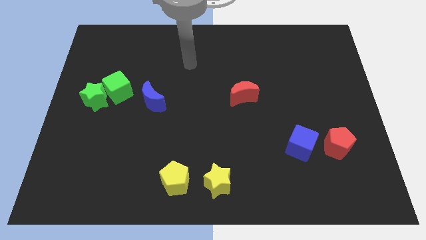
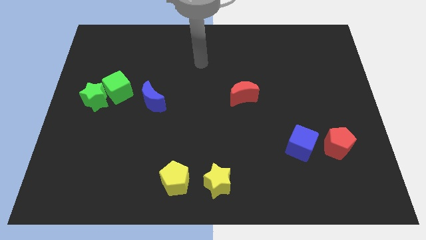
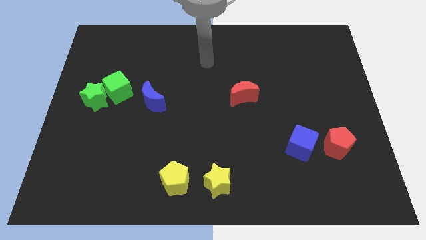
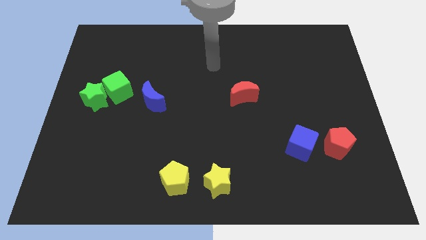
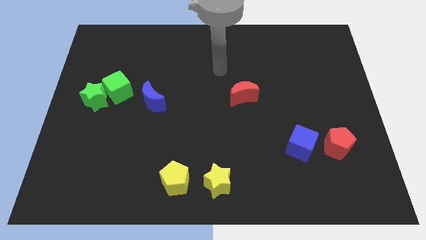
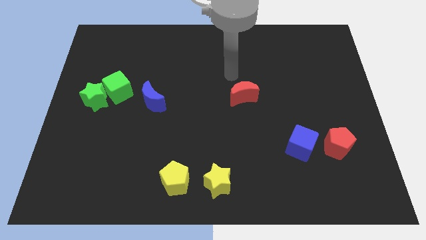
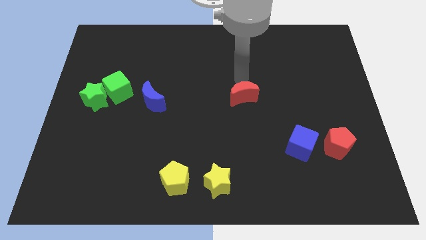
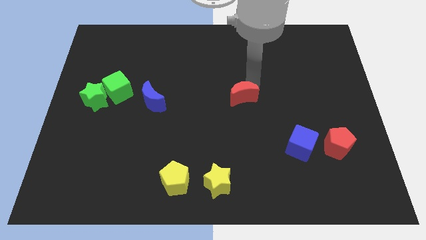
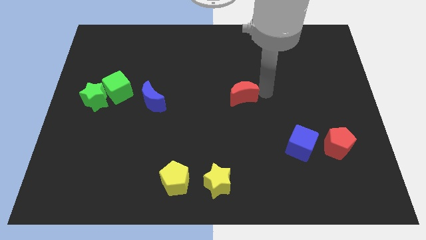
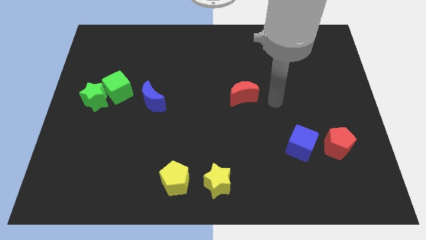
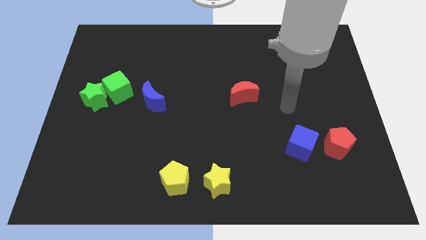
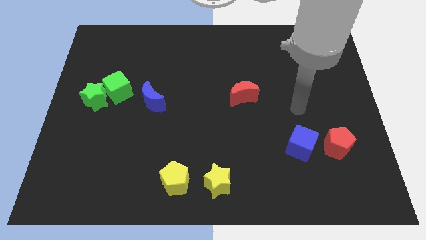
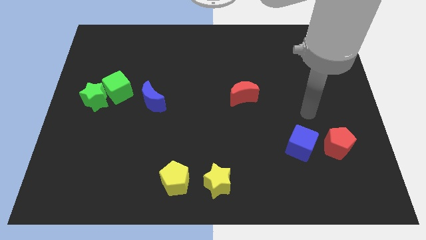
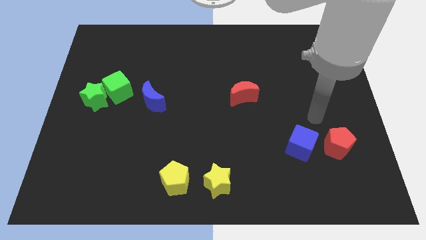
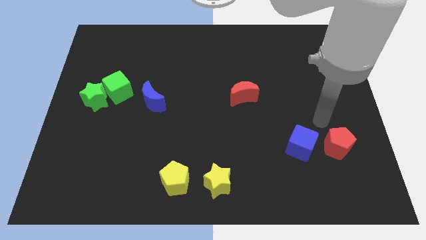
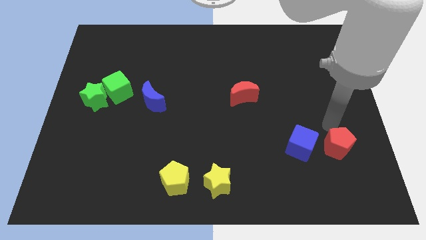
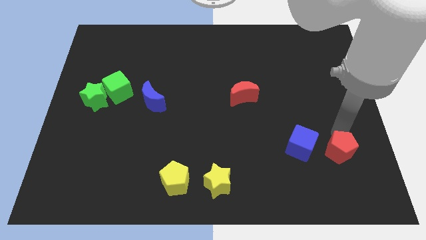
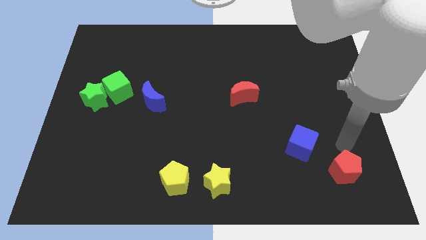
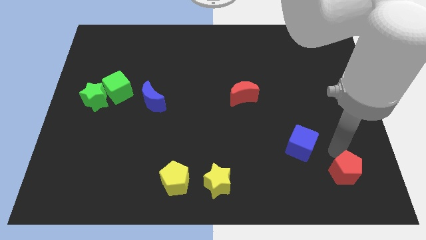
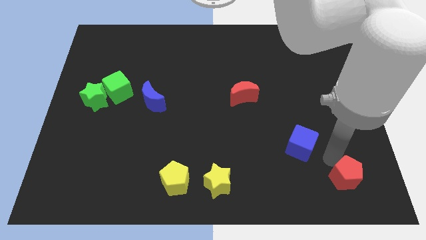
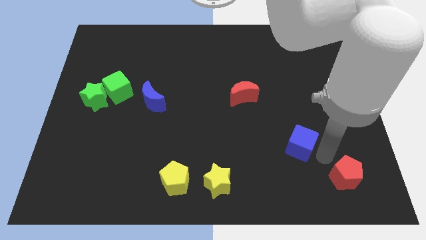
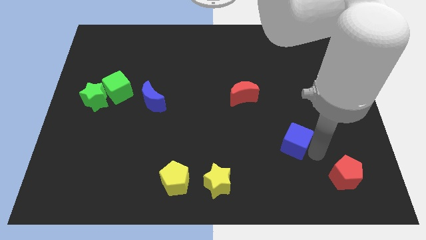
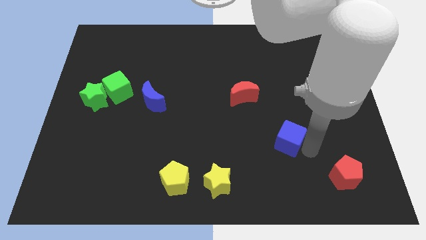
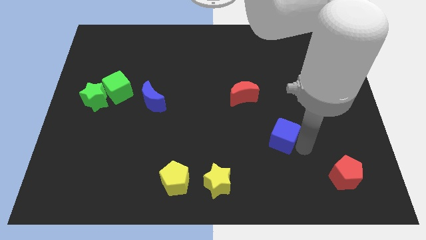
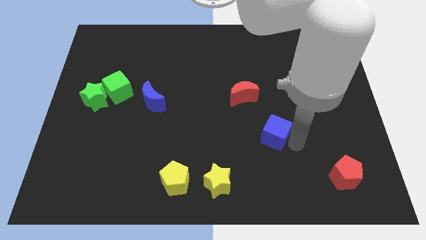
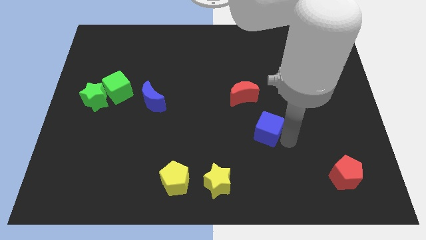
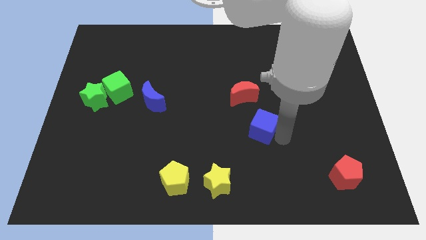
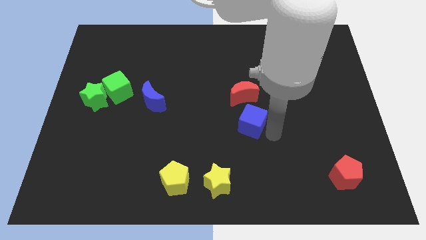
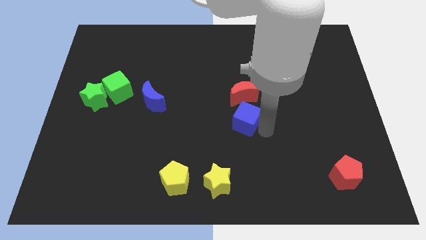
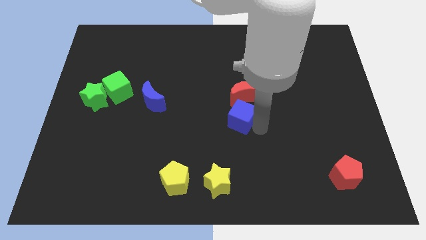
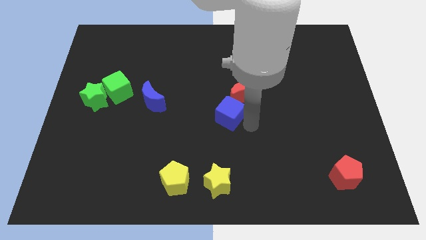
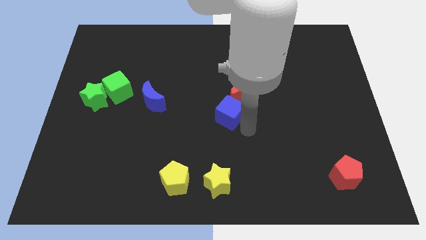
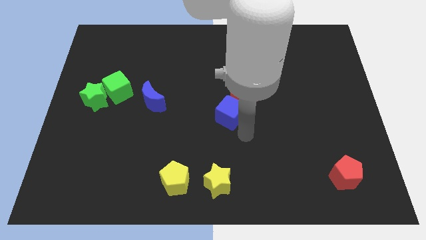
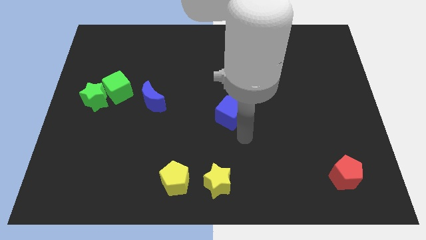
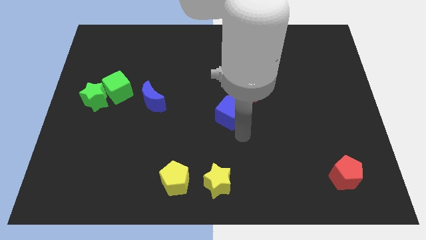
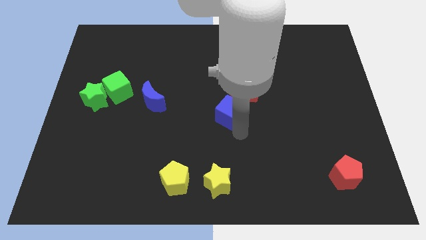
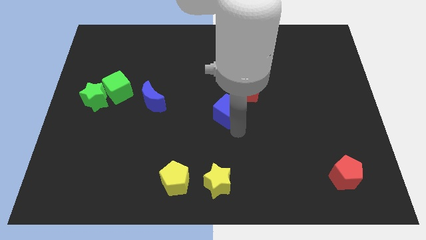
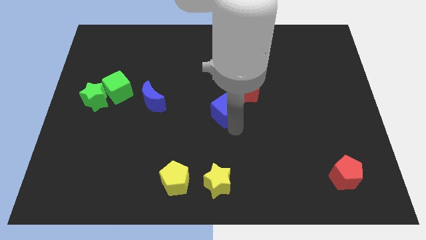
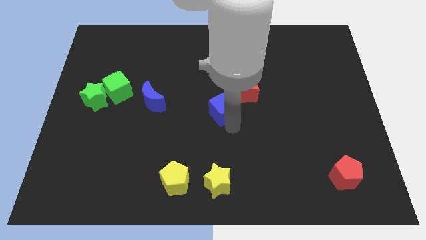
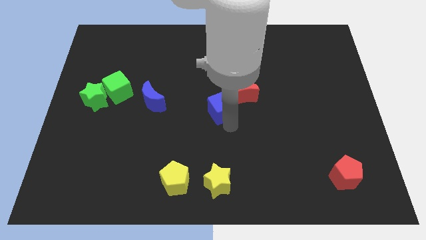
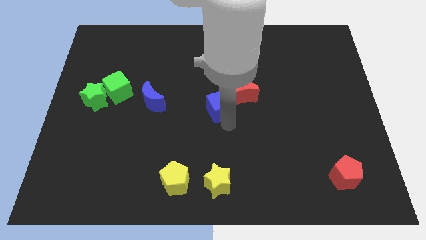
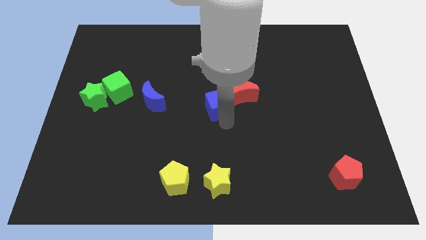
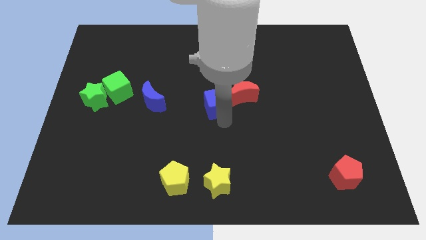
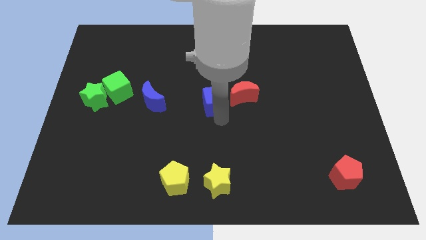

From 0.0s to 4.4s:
move the blue cube diagonally upwards and to the left

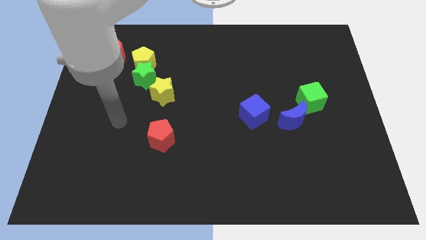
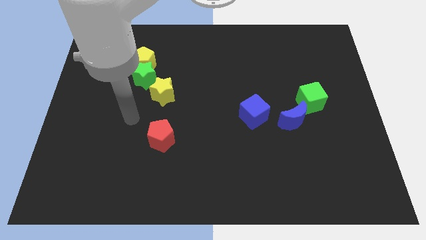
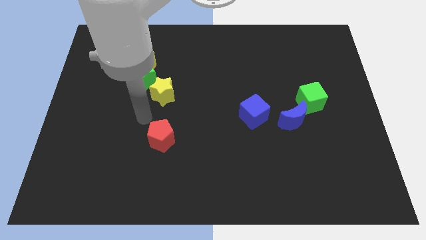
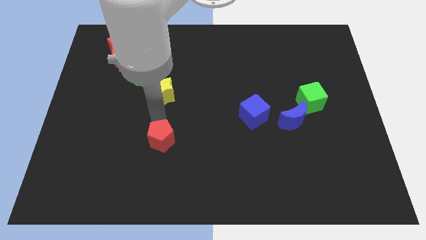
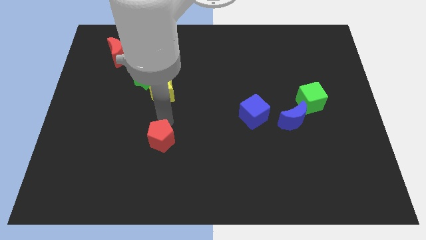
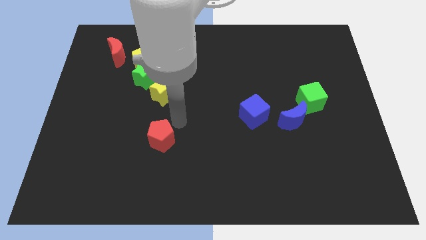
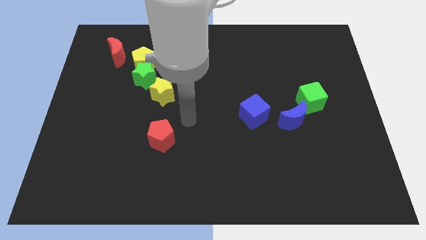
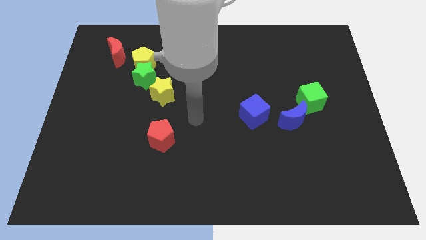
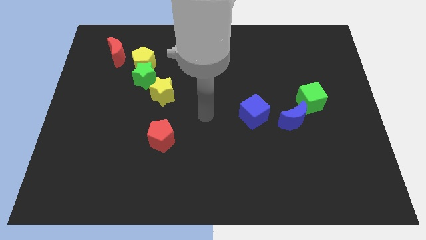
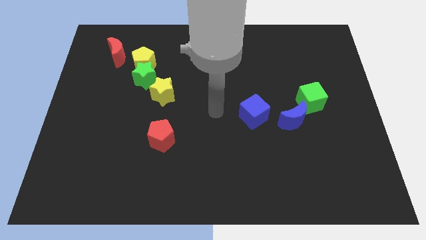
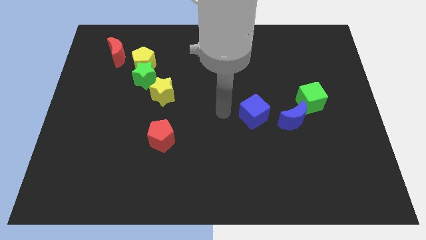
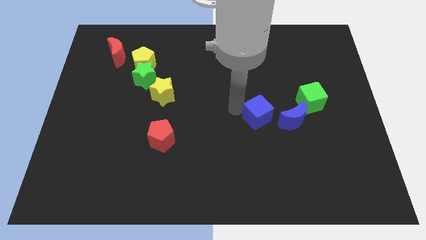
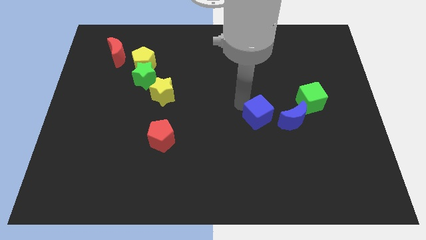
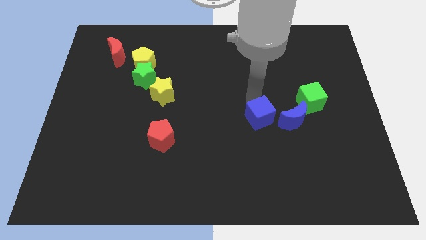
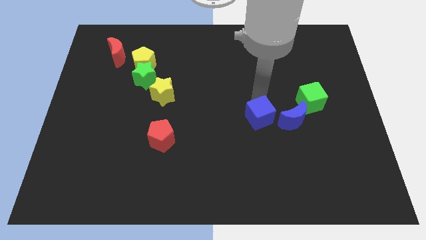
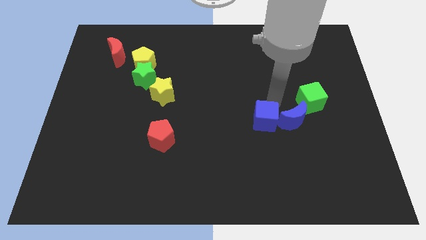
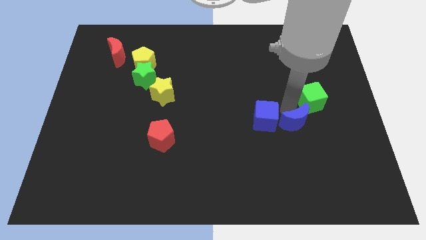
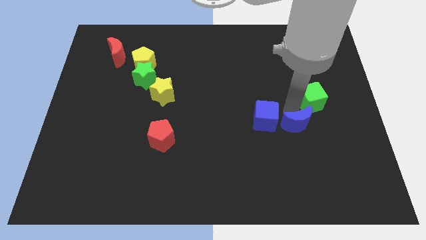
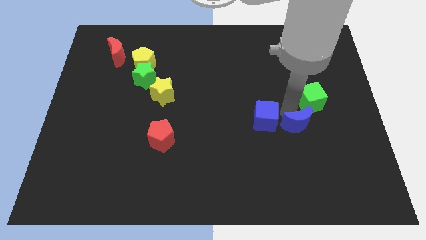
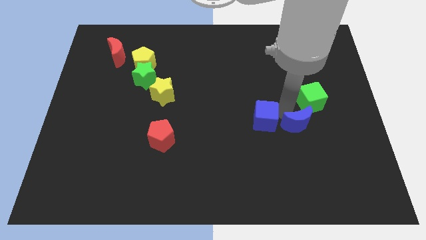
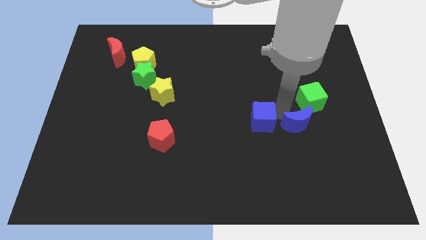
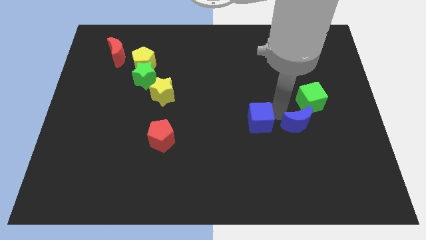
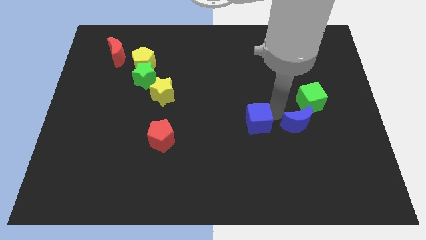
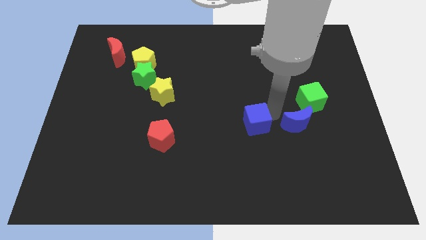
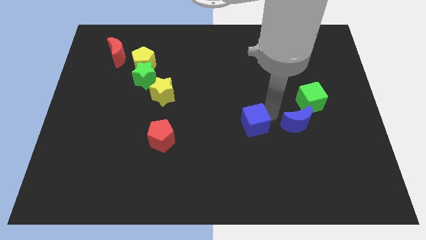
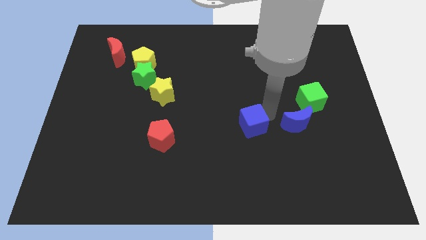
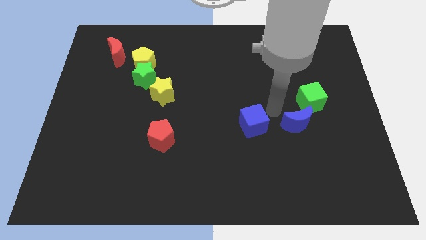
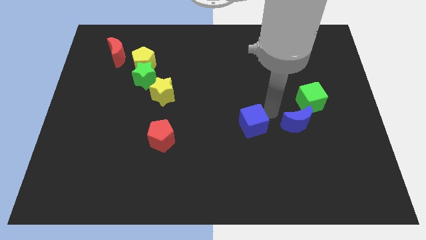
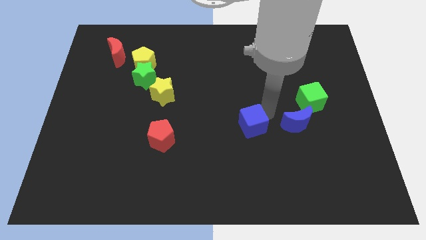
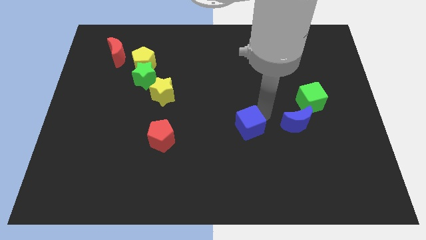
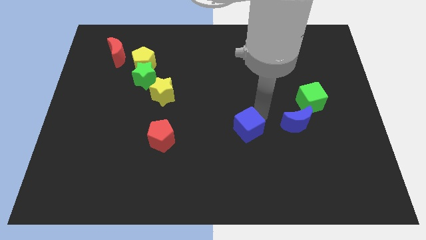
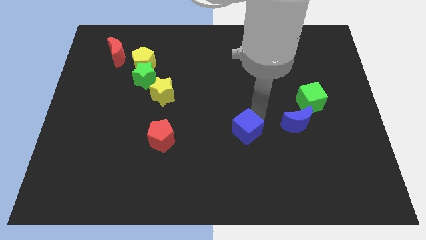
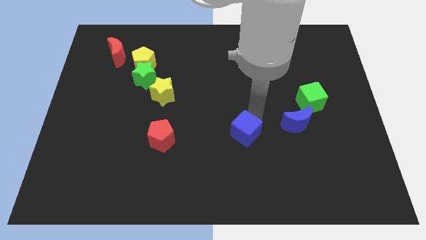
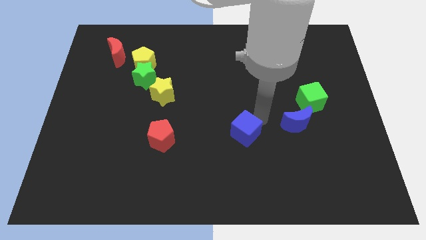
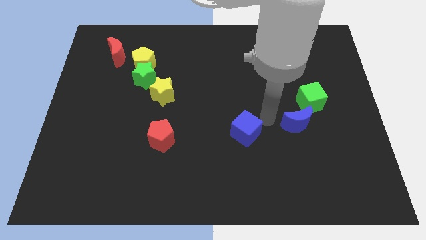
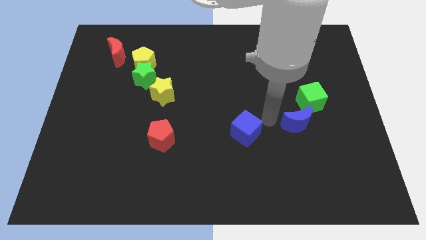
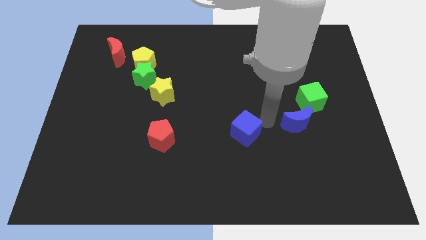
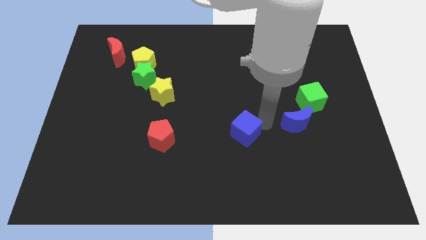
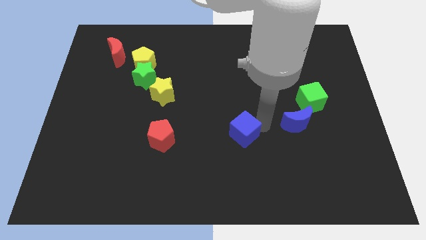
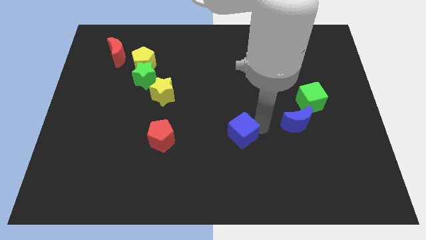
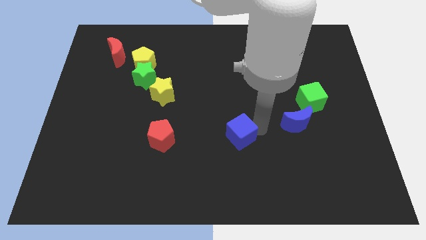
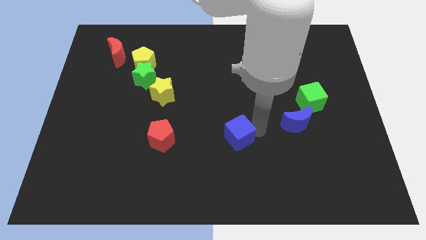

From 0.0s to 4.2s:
push the blue cube downwards and then to the left a little bit
